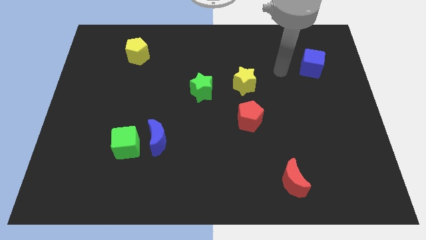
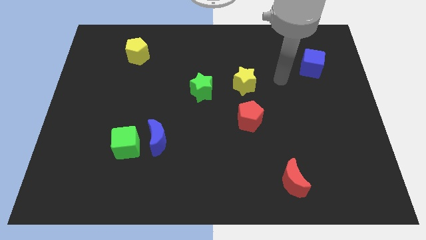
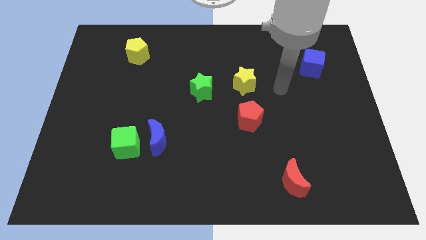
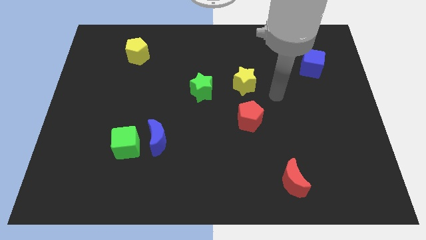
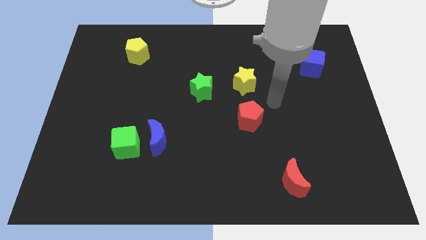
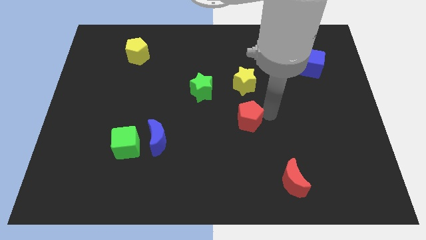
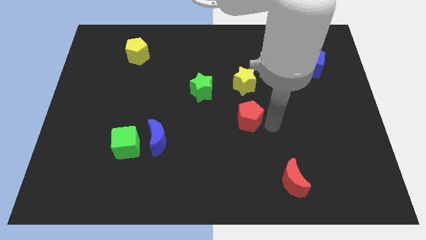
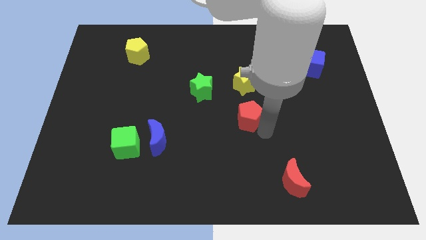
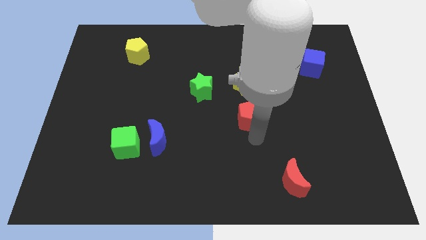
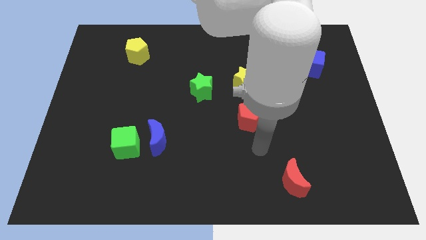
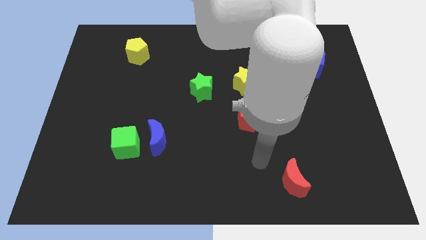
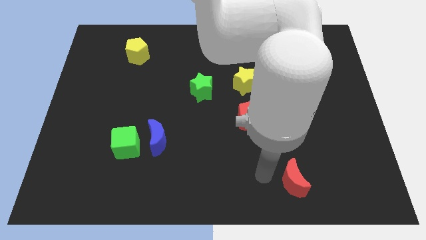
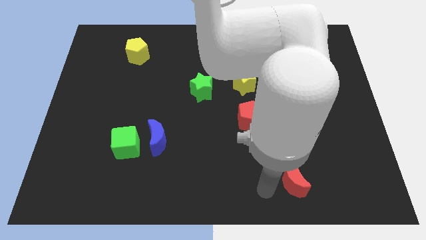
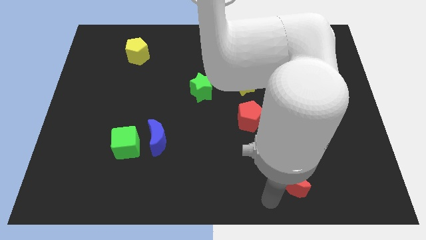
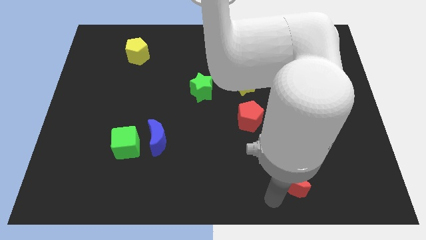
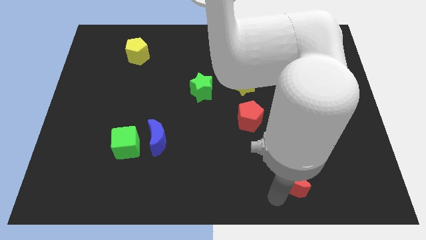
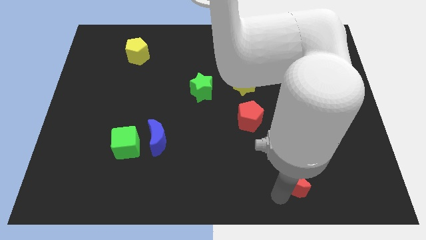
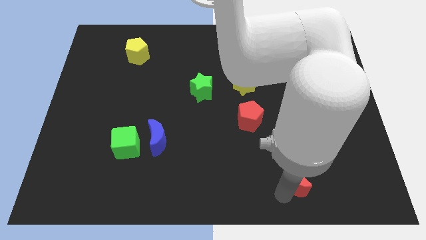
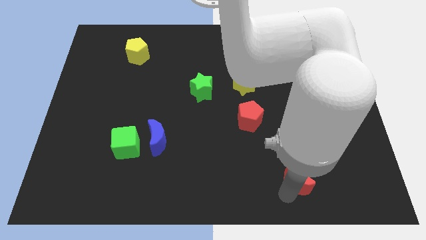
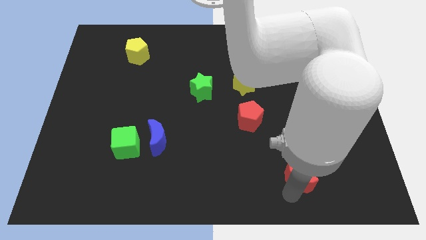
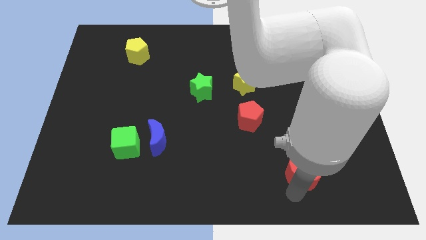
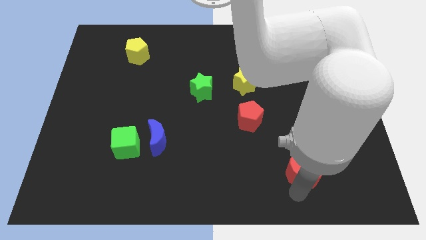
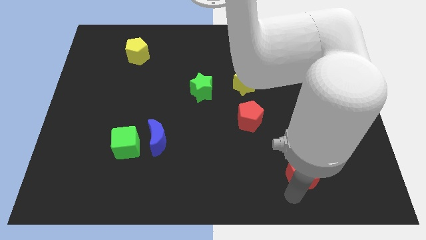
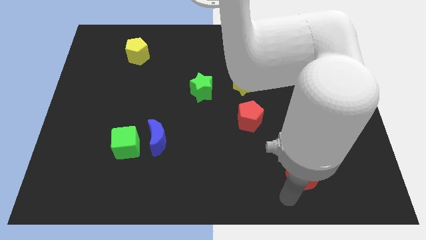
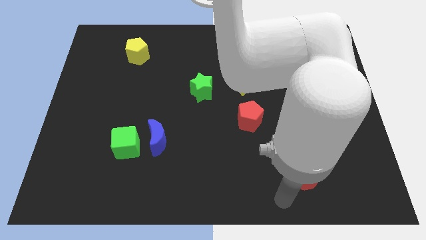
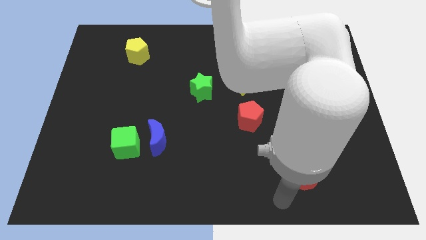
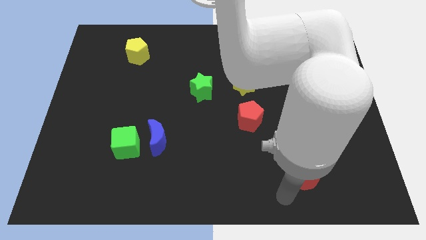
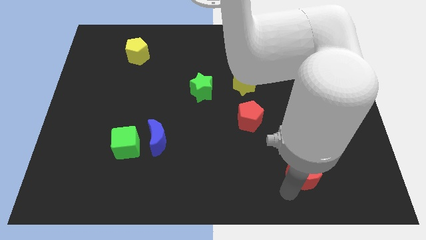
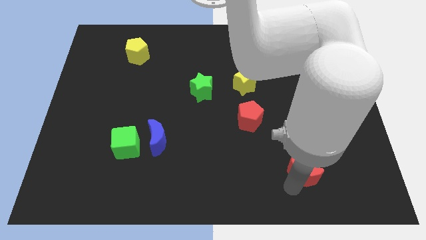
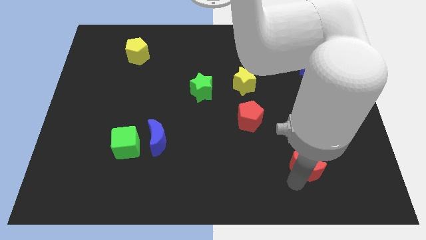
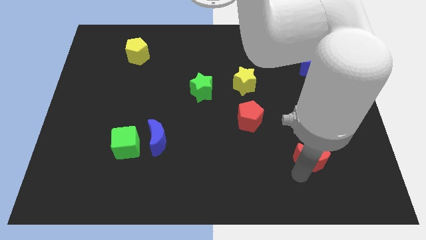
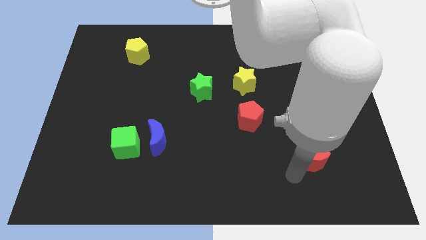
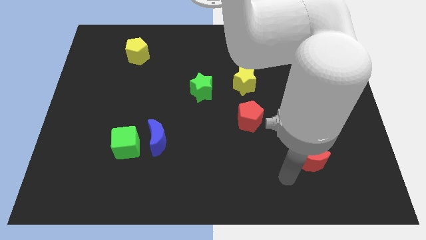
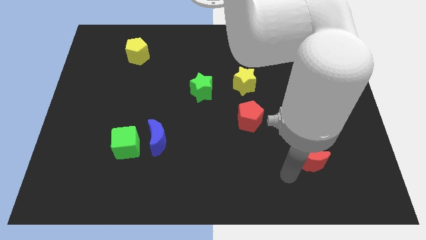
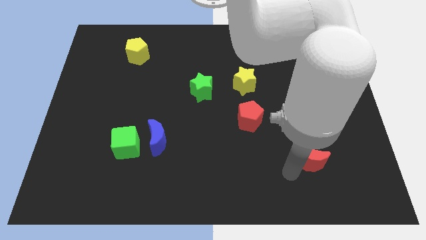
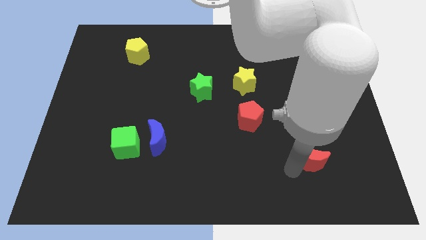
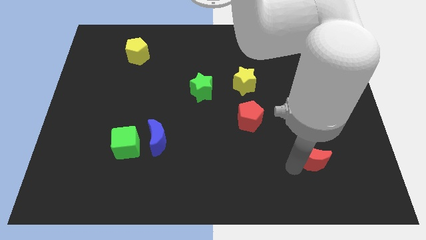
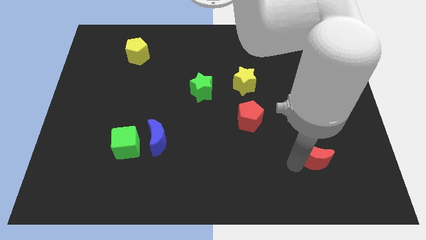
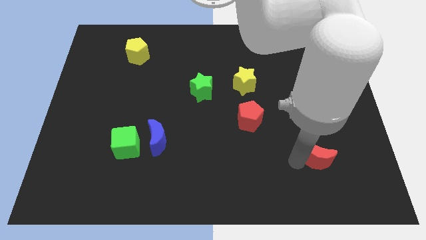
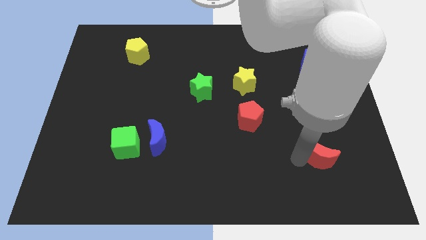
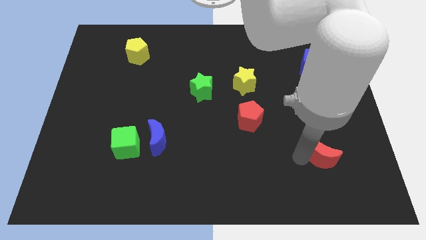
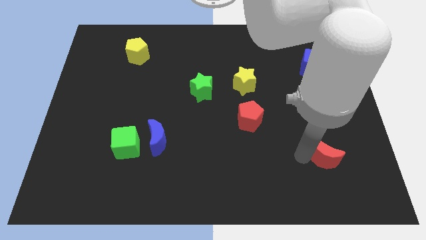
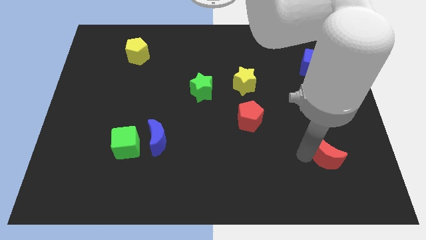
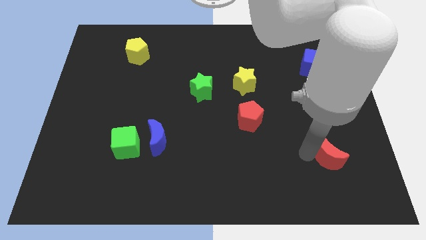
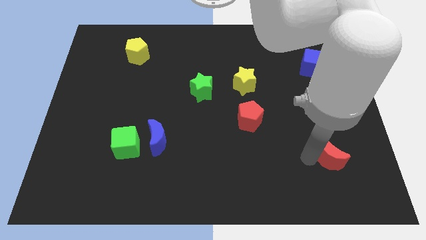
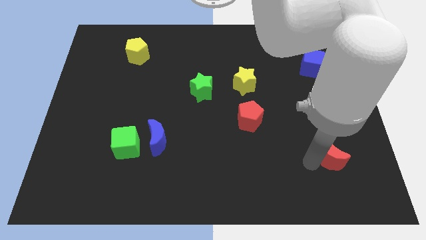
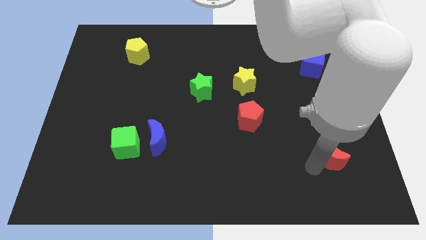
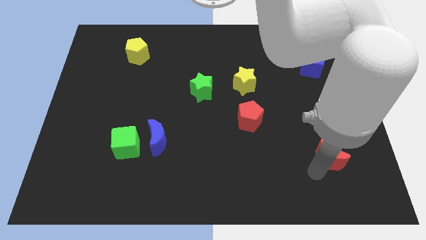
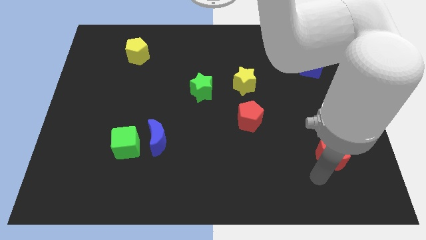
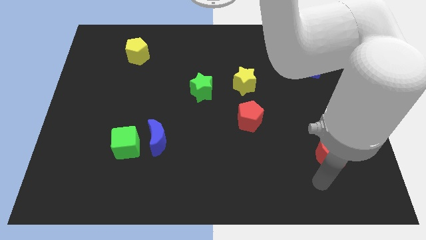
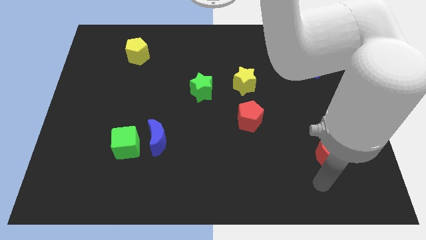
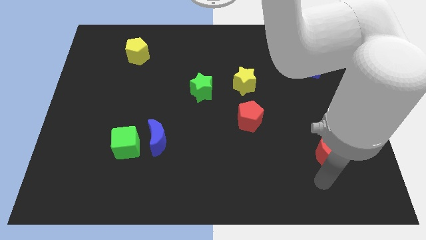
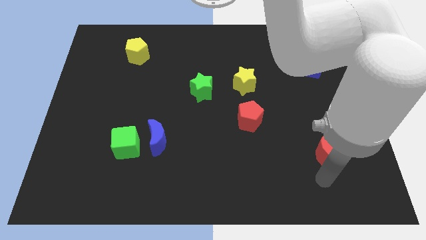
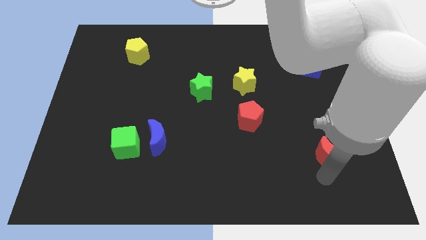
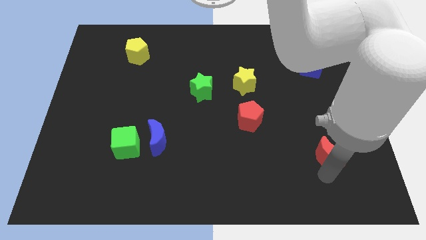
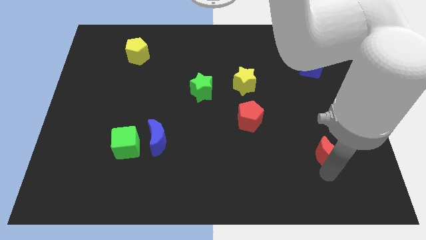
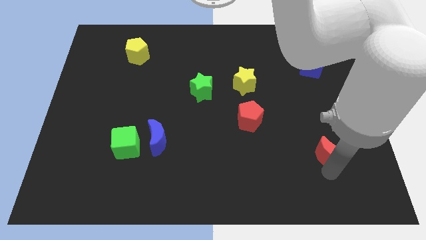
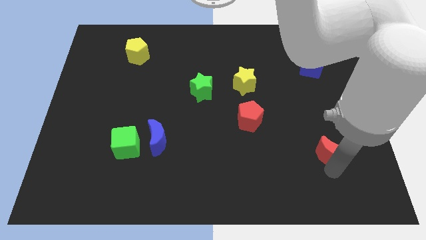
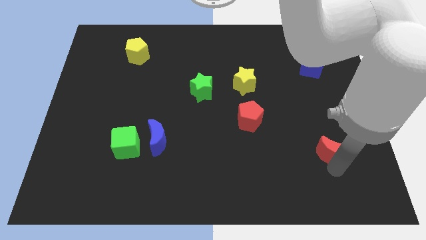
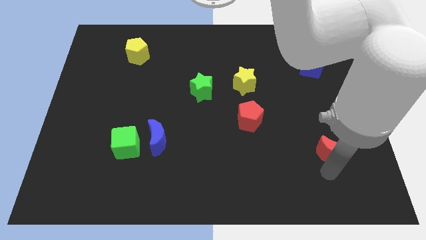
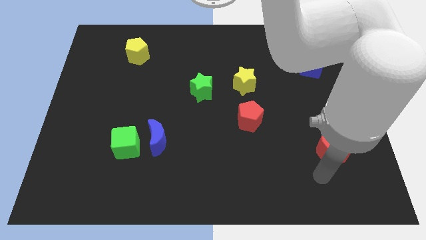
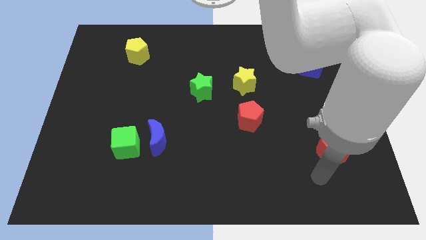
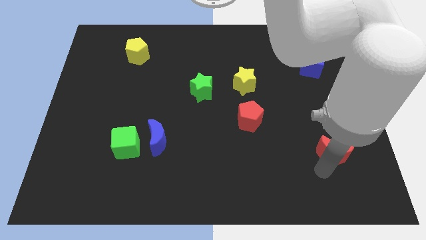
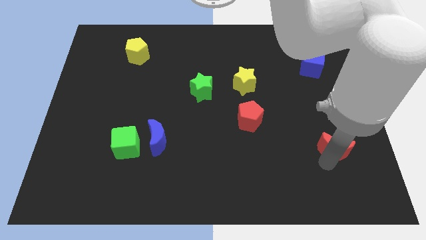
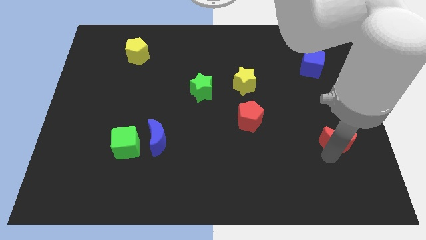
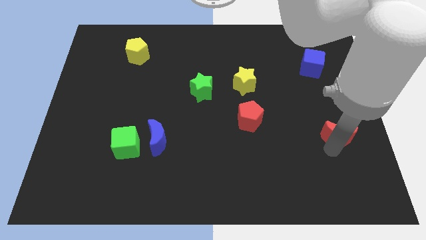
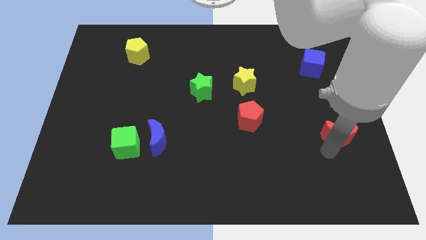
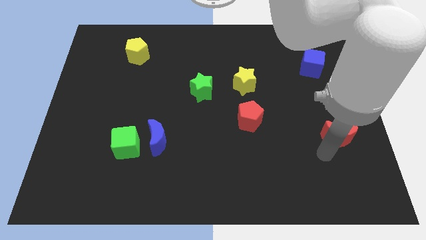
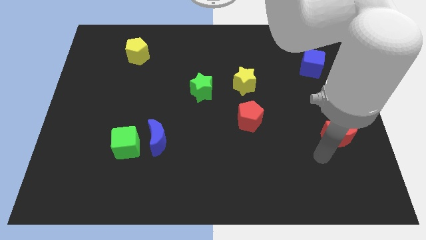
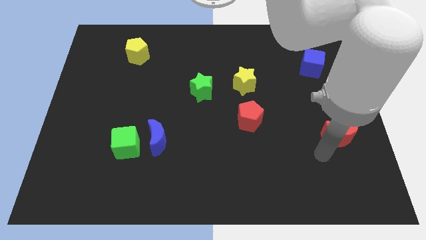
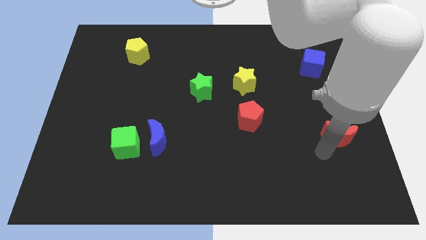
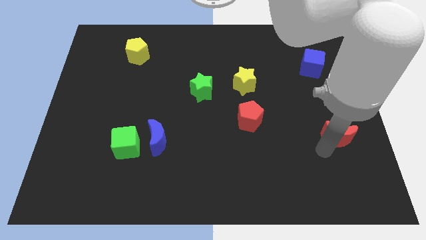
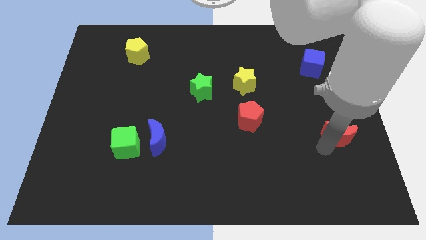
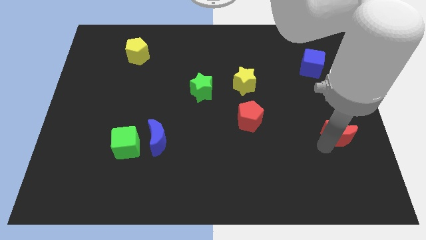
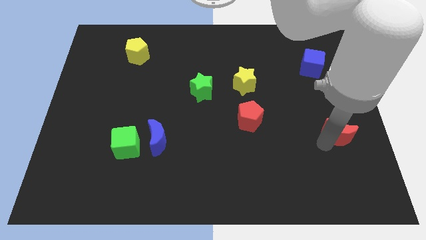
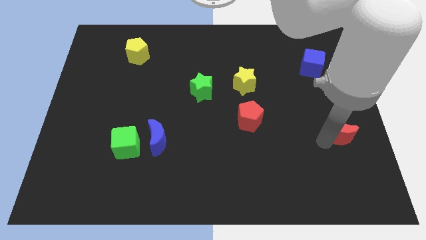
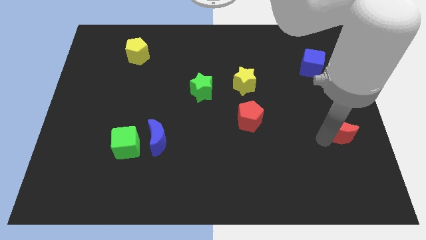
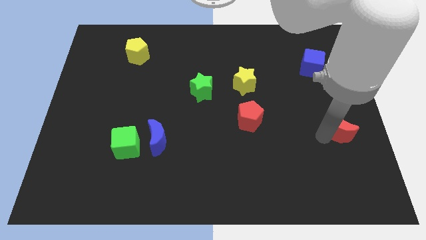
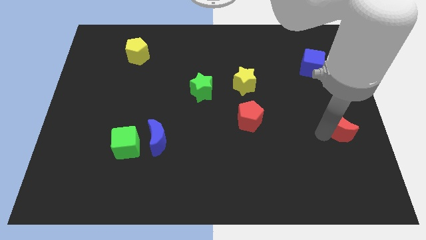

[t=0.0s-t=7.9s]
put the red moon to the right side
